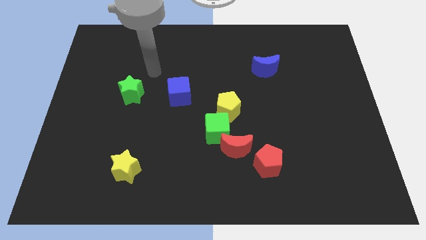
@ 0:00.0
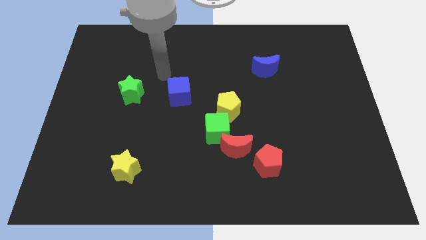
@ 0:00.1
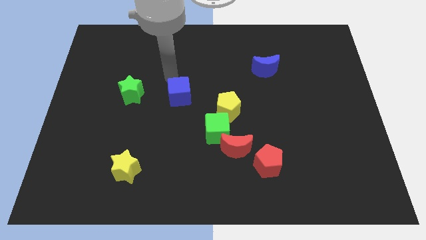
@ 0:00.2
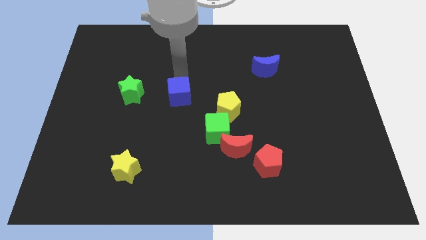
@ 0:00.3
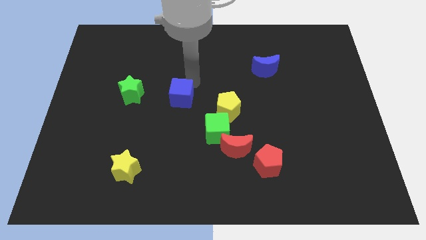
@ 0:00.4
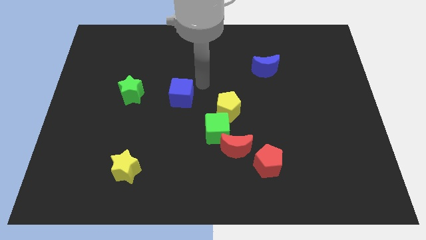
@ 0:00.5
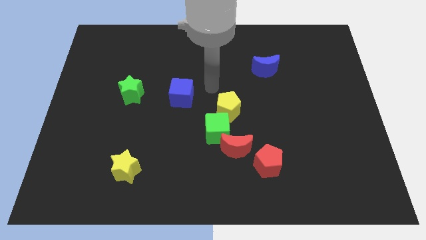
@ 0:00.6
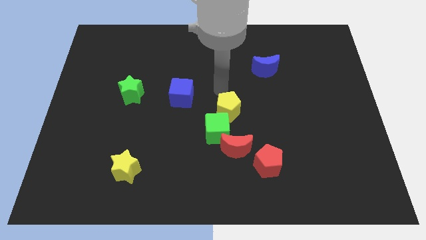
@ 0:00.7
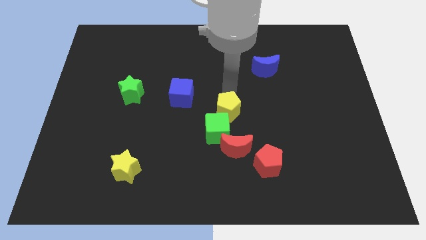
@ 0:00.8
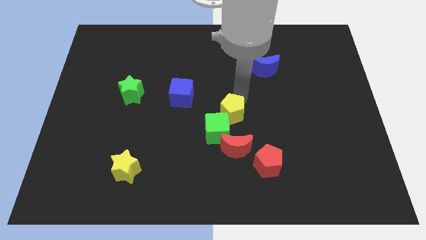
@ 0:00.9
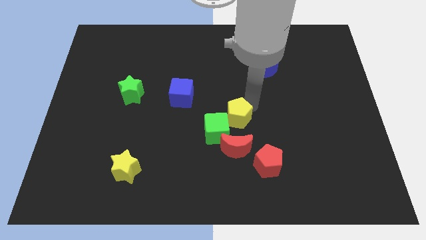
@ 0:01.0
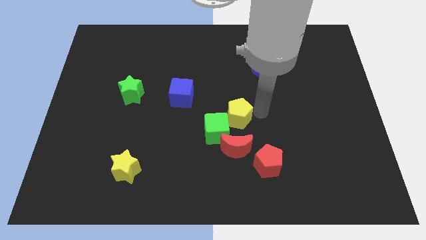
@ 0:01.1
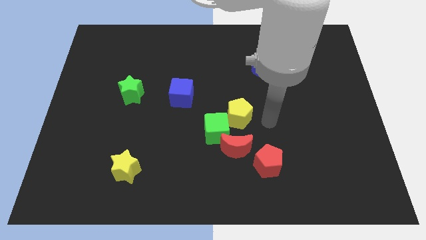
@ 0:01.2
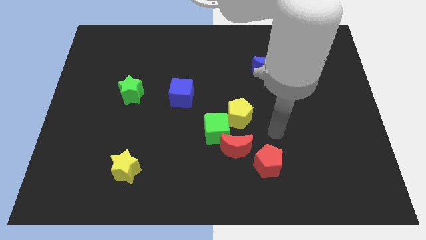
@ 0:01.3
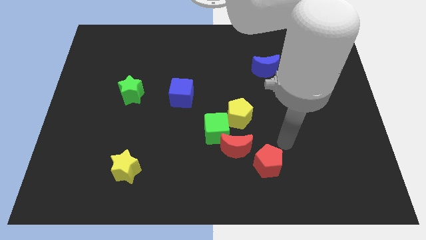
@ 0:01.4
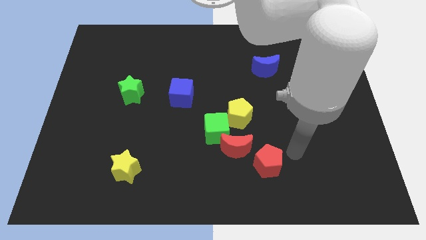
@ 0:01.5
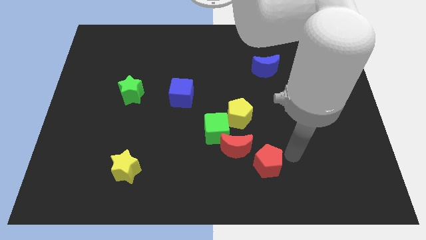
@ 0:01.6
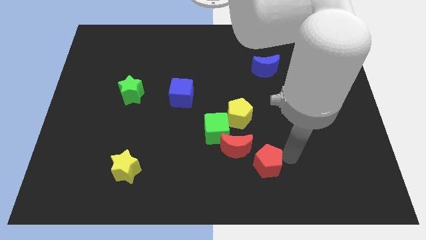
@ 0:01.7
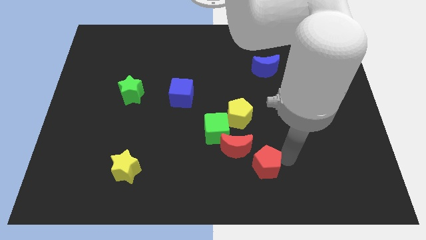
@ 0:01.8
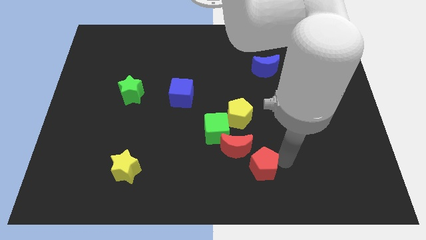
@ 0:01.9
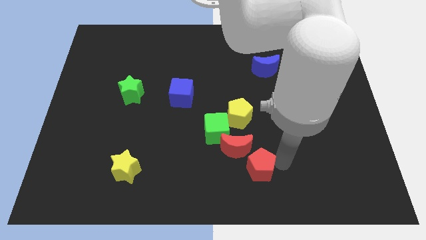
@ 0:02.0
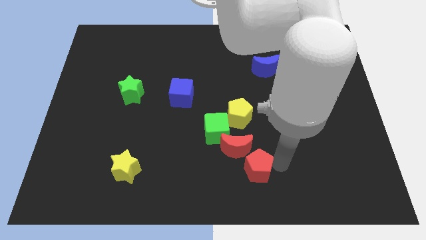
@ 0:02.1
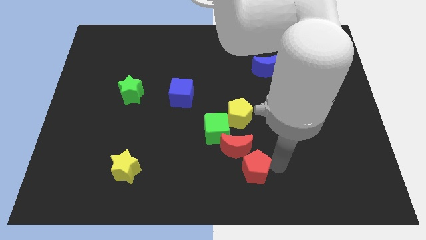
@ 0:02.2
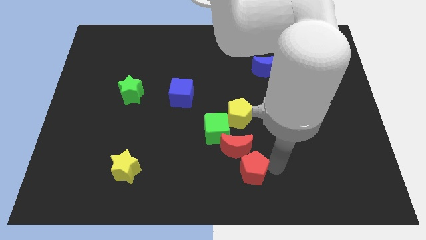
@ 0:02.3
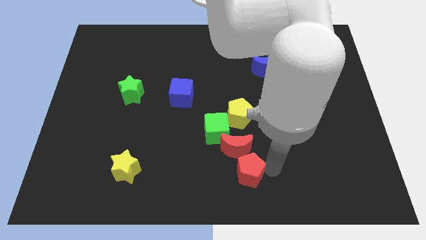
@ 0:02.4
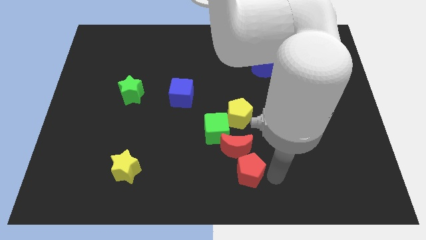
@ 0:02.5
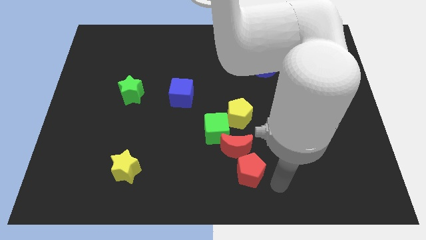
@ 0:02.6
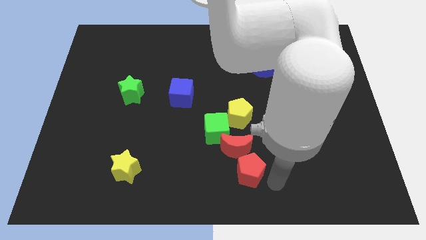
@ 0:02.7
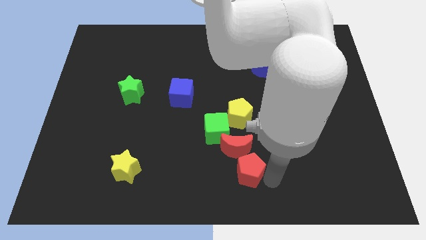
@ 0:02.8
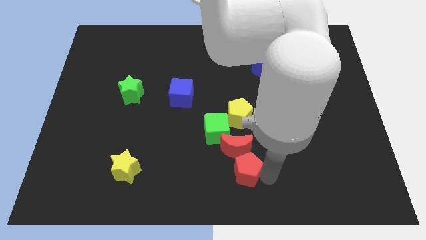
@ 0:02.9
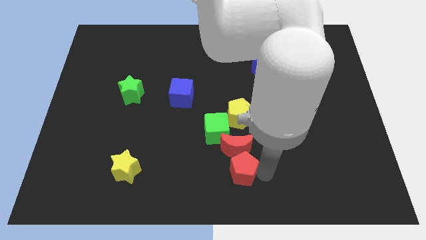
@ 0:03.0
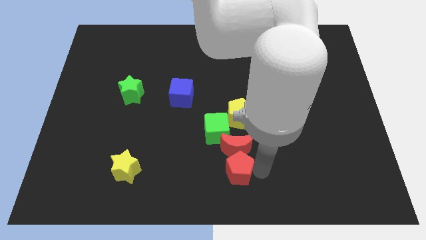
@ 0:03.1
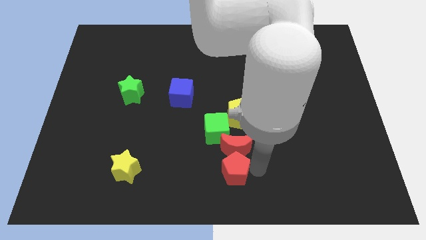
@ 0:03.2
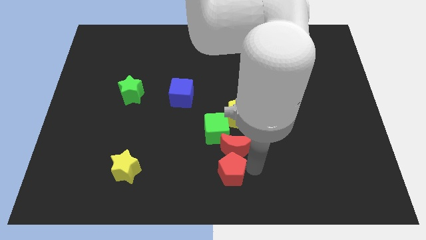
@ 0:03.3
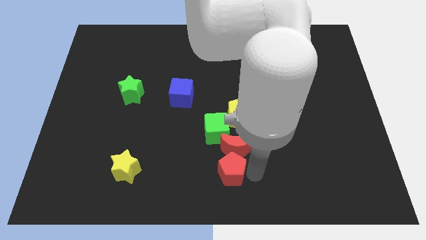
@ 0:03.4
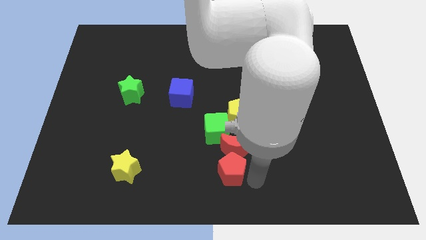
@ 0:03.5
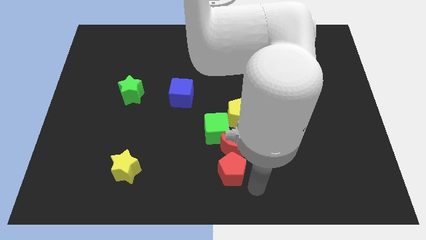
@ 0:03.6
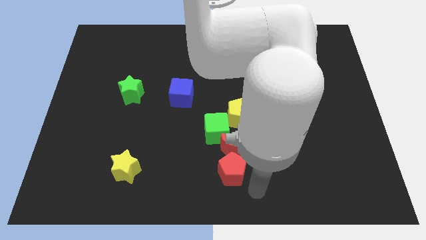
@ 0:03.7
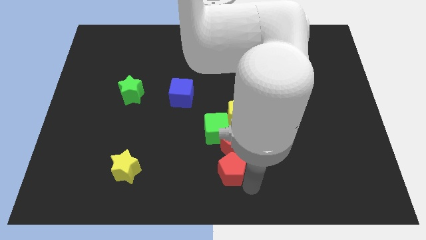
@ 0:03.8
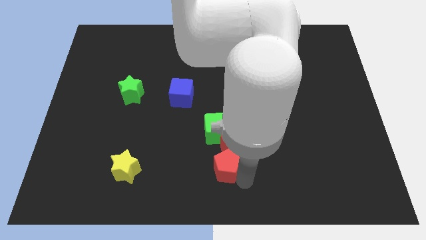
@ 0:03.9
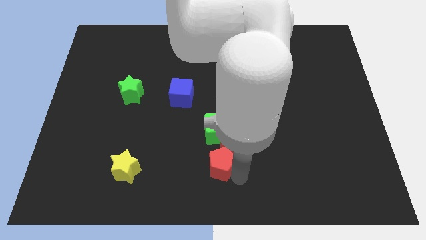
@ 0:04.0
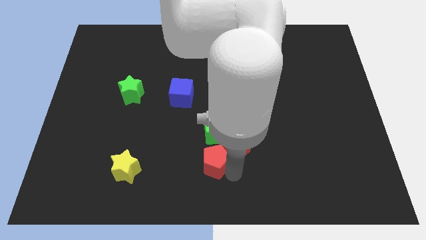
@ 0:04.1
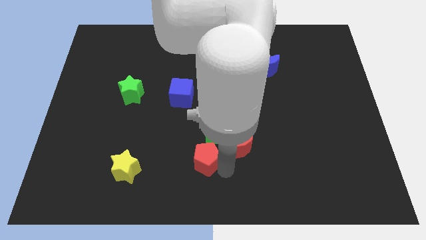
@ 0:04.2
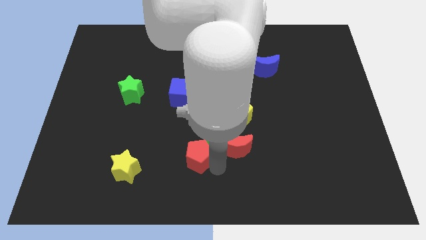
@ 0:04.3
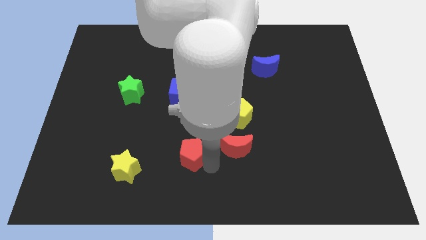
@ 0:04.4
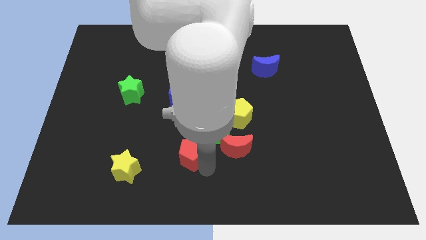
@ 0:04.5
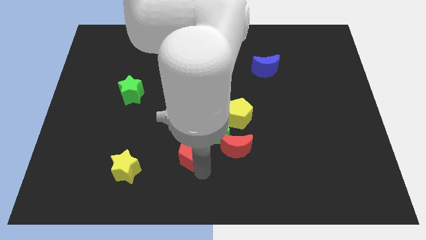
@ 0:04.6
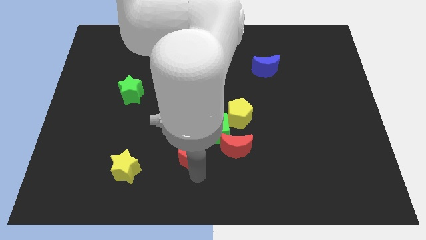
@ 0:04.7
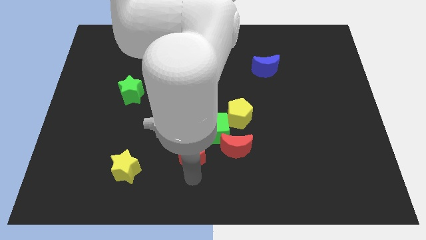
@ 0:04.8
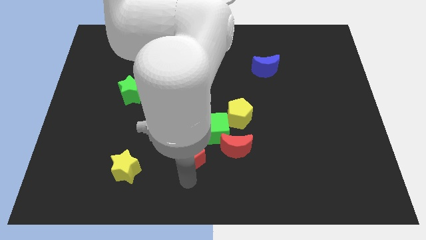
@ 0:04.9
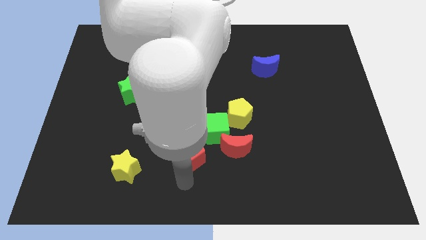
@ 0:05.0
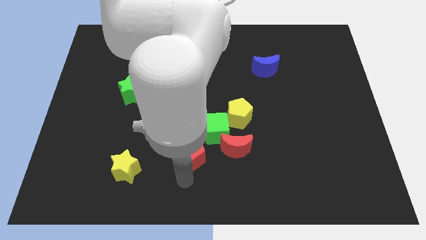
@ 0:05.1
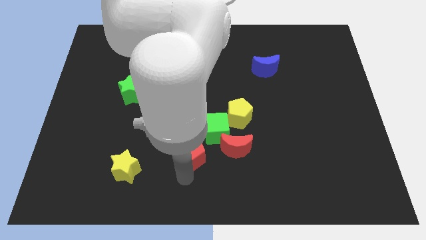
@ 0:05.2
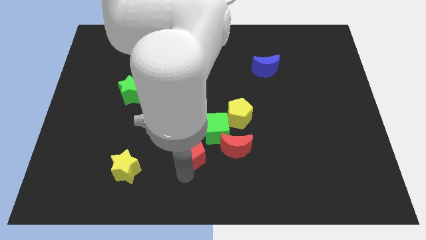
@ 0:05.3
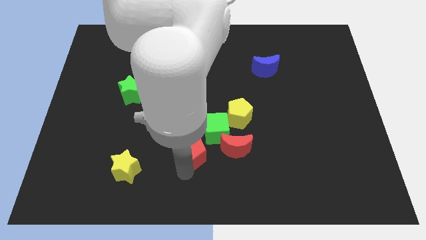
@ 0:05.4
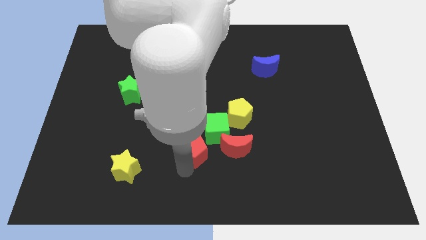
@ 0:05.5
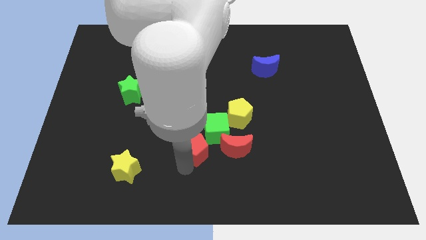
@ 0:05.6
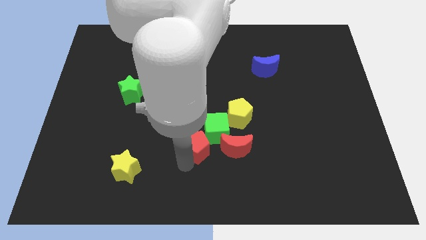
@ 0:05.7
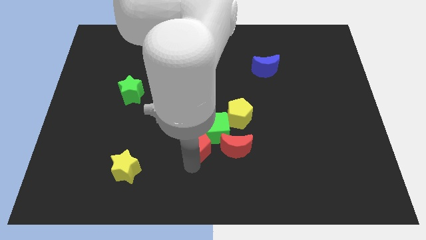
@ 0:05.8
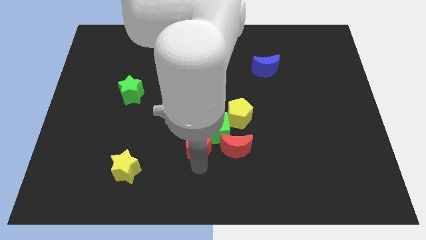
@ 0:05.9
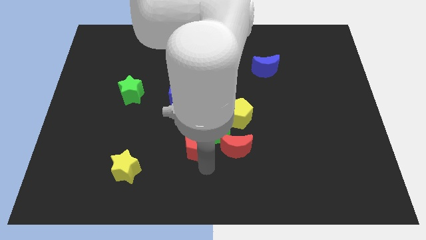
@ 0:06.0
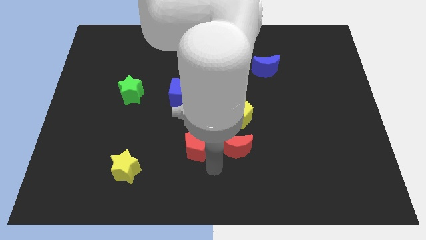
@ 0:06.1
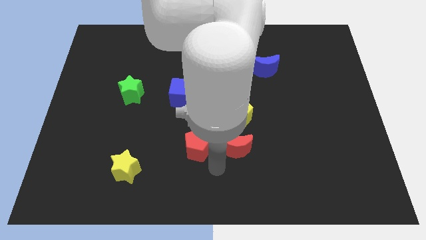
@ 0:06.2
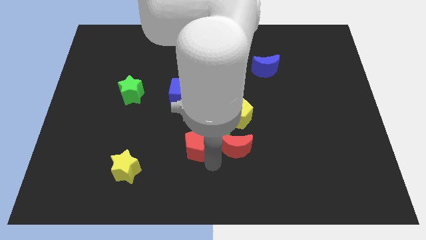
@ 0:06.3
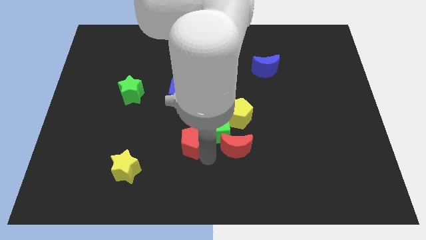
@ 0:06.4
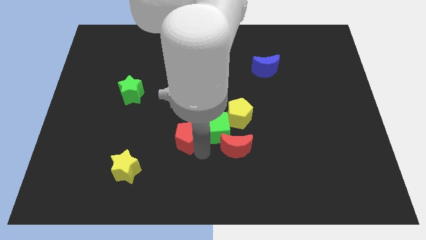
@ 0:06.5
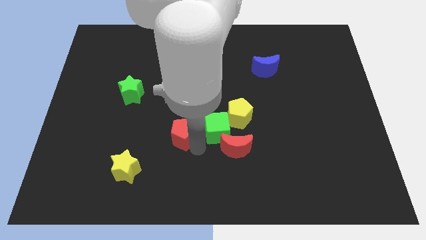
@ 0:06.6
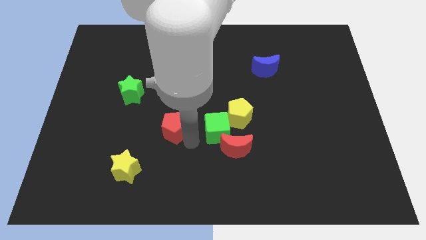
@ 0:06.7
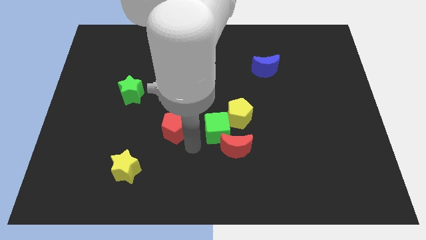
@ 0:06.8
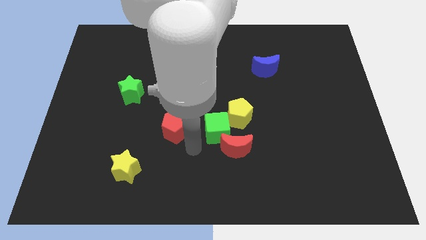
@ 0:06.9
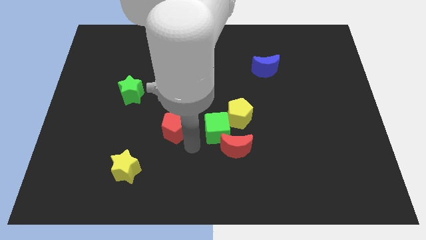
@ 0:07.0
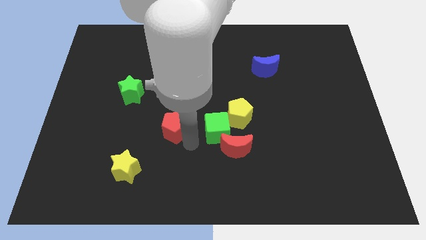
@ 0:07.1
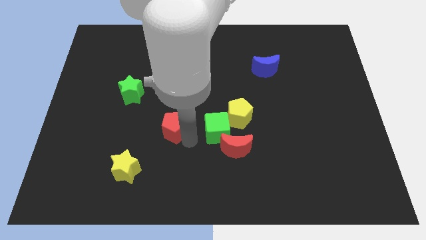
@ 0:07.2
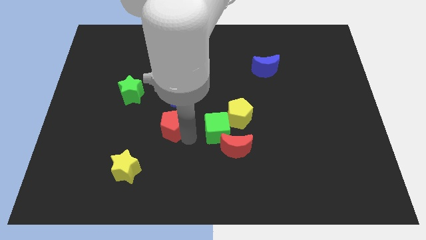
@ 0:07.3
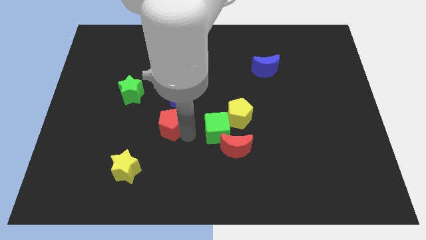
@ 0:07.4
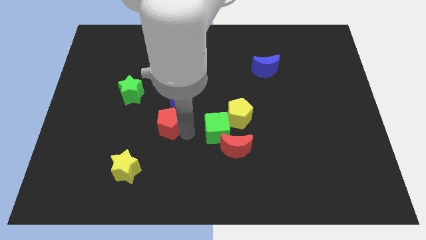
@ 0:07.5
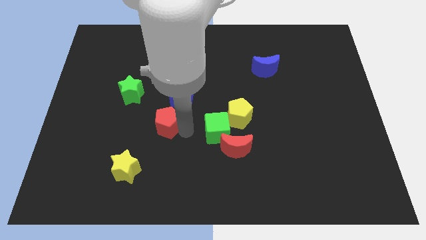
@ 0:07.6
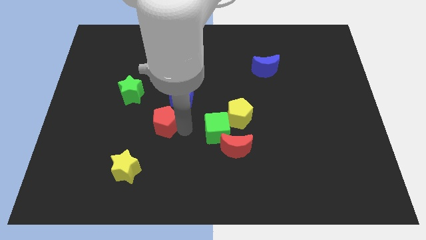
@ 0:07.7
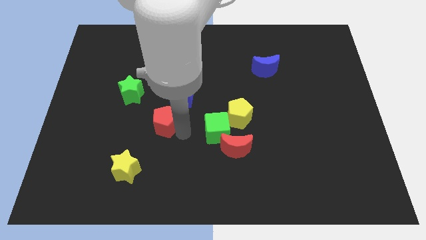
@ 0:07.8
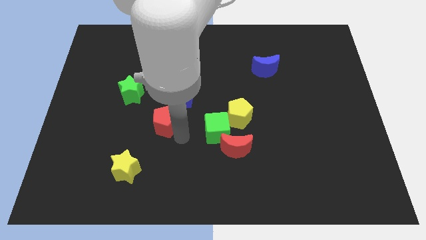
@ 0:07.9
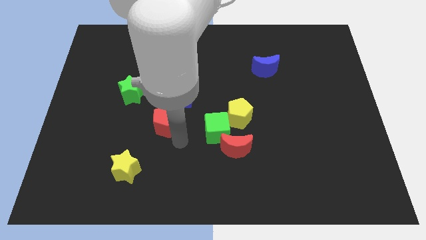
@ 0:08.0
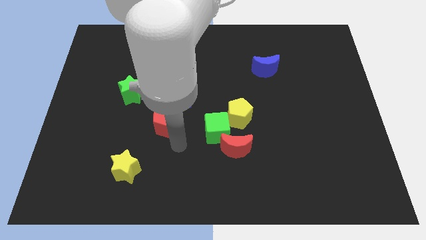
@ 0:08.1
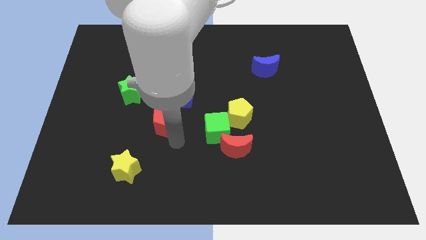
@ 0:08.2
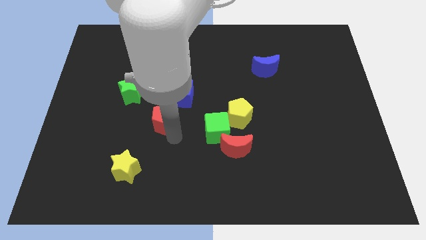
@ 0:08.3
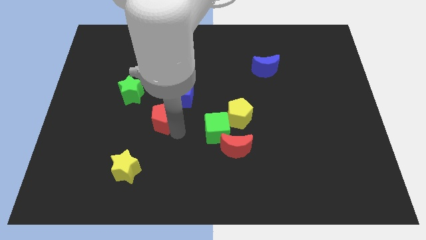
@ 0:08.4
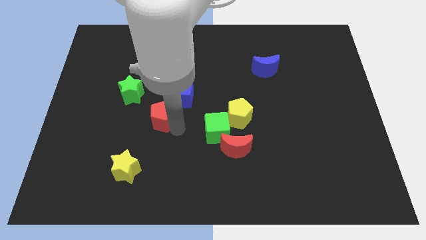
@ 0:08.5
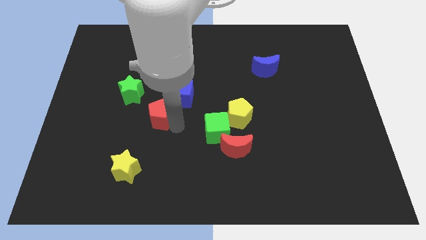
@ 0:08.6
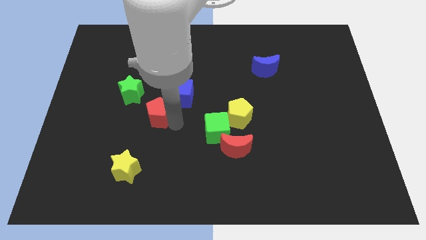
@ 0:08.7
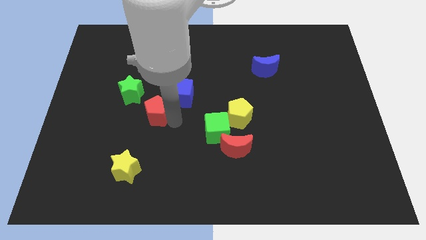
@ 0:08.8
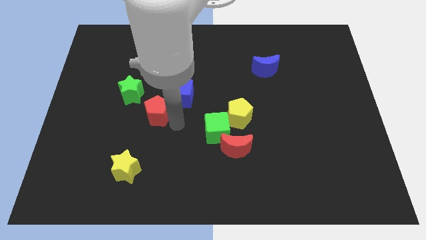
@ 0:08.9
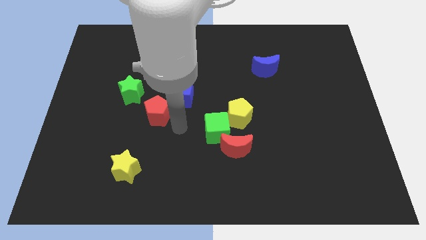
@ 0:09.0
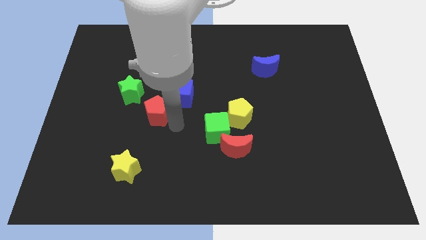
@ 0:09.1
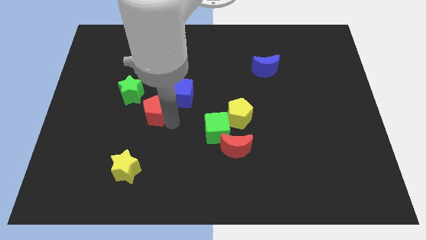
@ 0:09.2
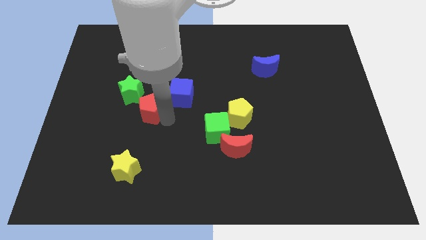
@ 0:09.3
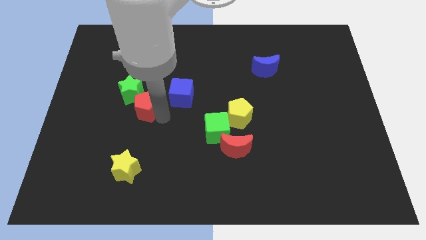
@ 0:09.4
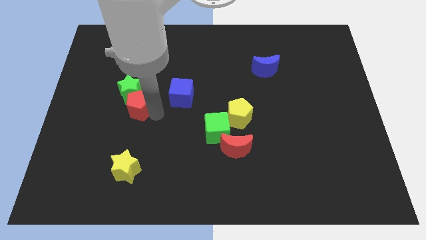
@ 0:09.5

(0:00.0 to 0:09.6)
move the red pentagon close to the green star
